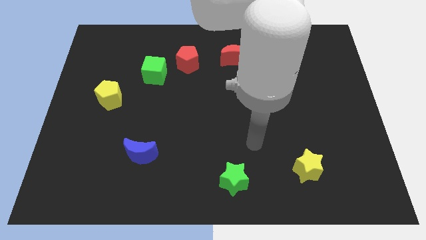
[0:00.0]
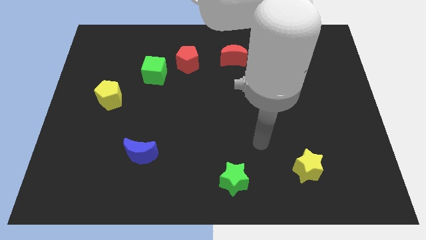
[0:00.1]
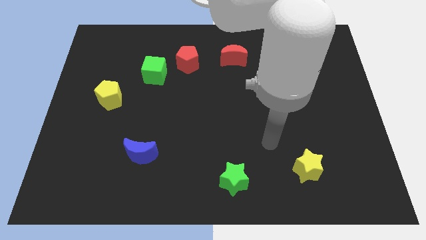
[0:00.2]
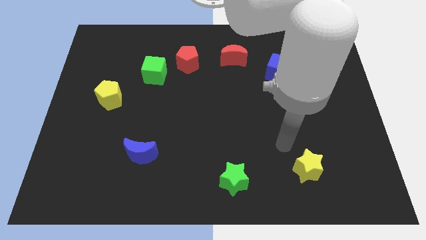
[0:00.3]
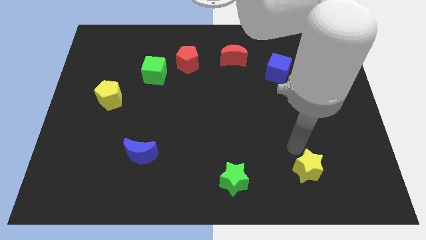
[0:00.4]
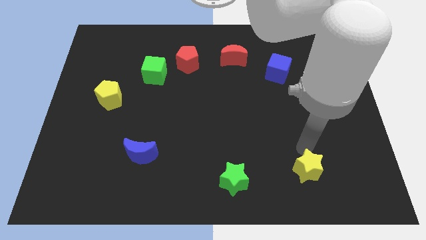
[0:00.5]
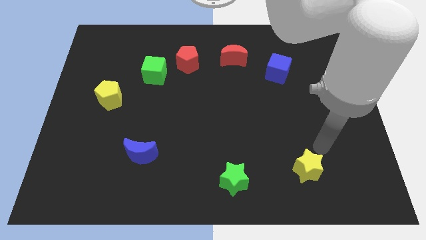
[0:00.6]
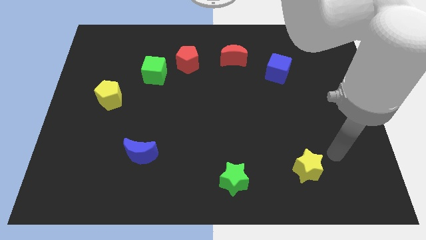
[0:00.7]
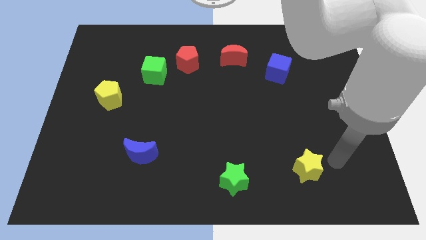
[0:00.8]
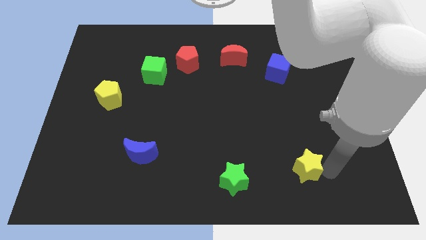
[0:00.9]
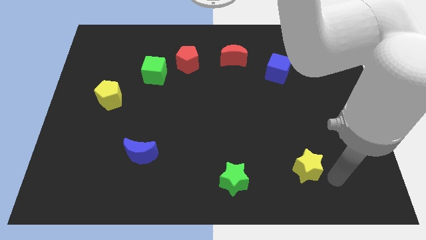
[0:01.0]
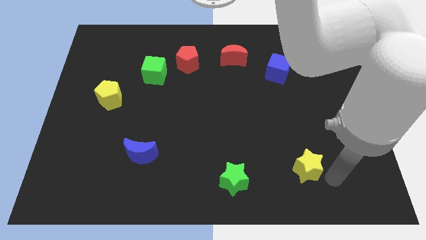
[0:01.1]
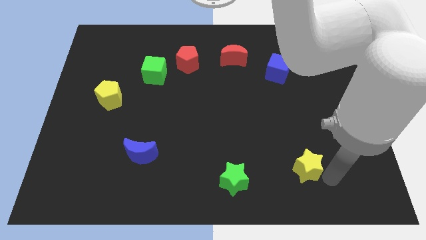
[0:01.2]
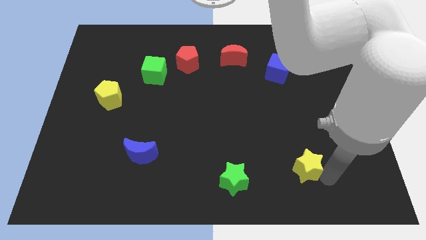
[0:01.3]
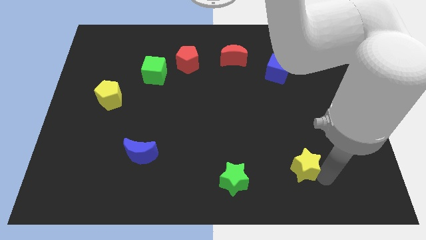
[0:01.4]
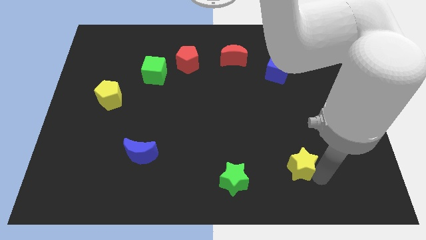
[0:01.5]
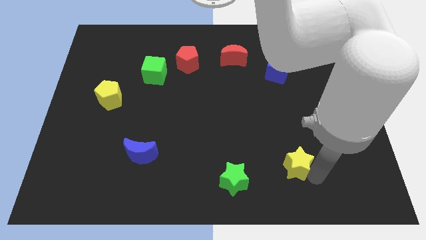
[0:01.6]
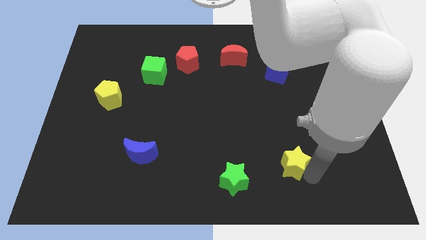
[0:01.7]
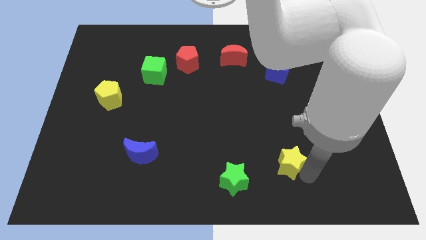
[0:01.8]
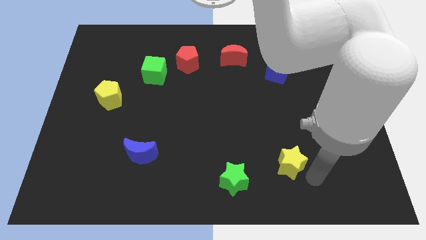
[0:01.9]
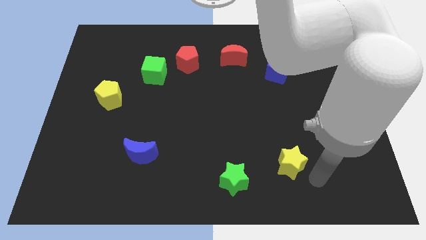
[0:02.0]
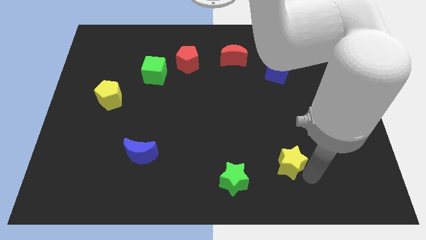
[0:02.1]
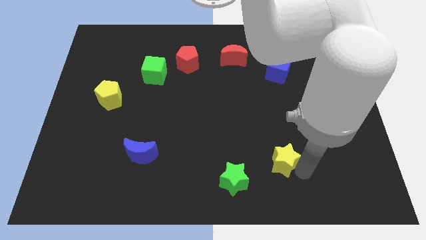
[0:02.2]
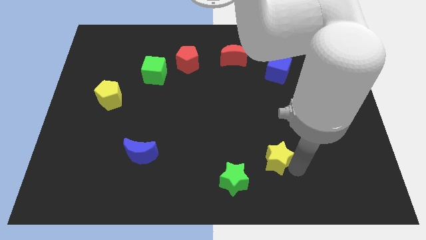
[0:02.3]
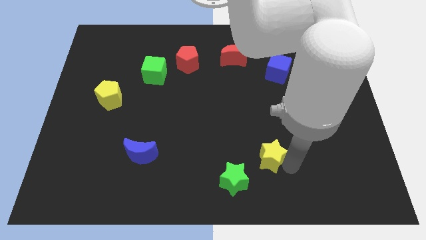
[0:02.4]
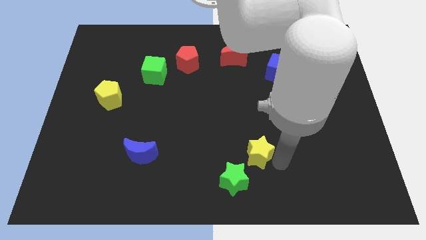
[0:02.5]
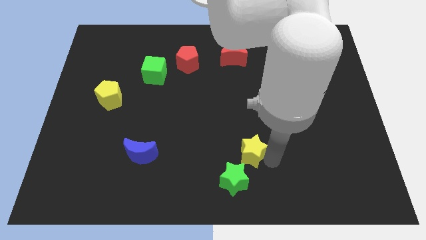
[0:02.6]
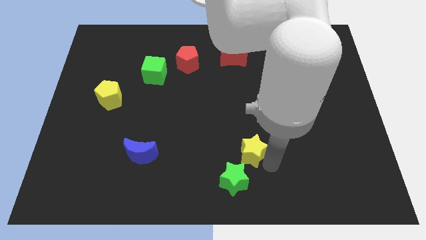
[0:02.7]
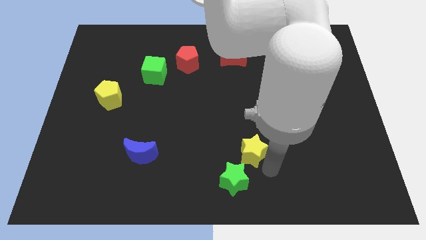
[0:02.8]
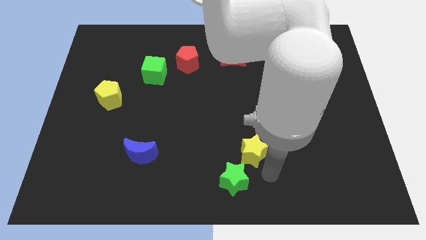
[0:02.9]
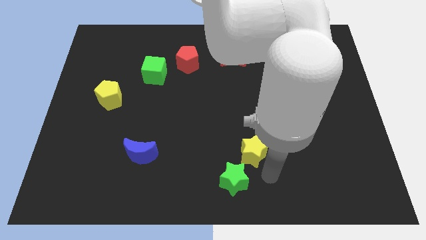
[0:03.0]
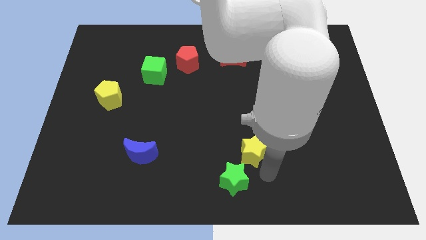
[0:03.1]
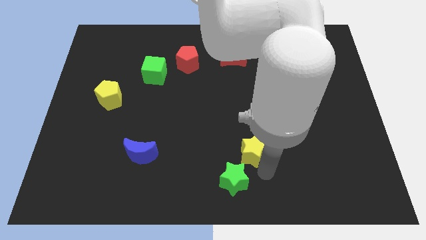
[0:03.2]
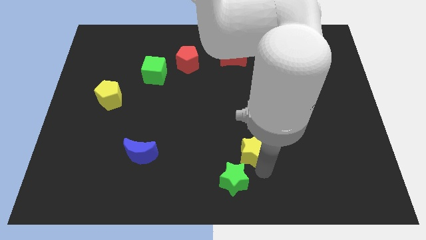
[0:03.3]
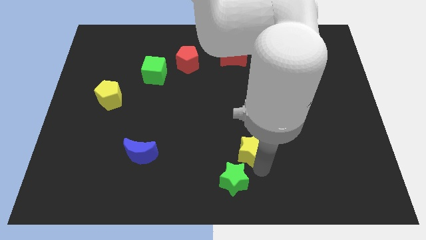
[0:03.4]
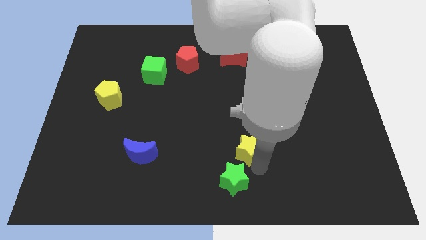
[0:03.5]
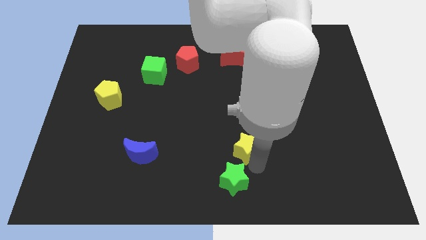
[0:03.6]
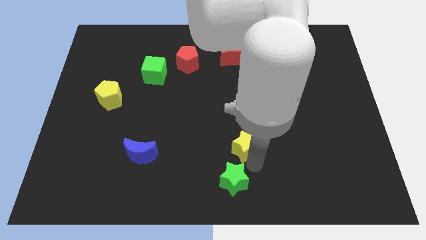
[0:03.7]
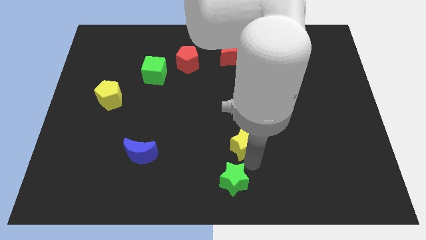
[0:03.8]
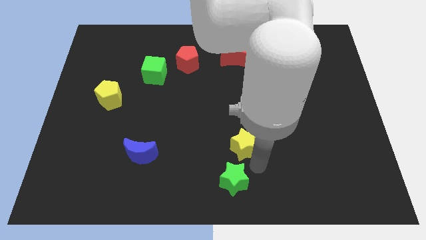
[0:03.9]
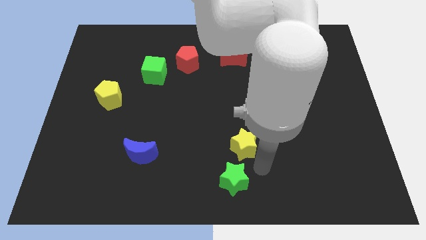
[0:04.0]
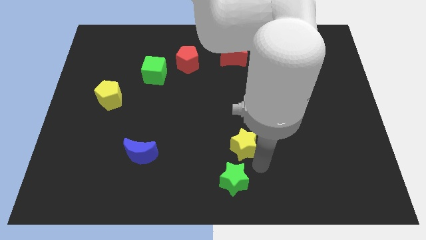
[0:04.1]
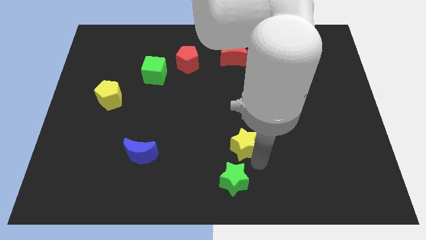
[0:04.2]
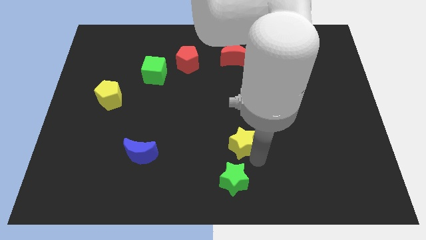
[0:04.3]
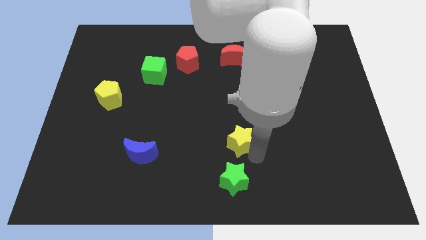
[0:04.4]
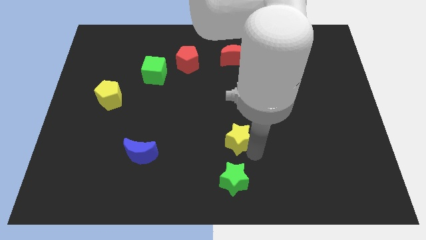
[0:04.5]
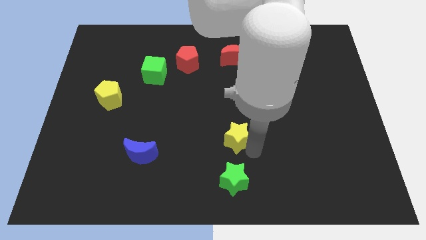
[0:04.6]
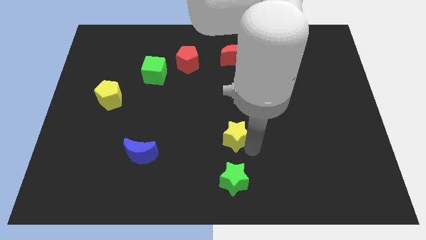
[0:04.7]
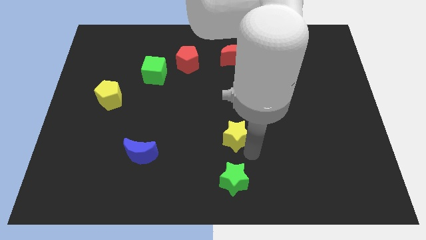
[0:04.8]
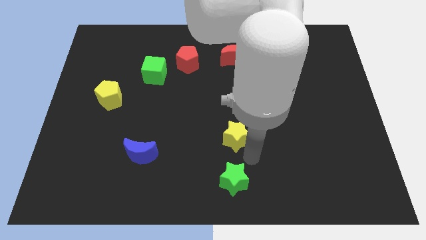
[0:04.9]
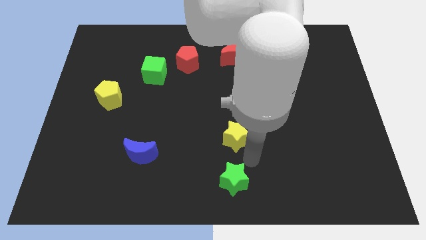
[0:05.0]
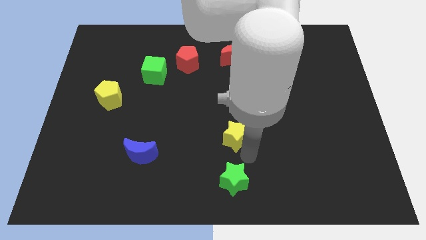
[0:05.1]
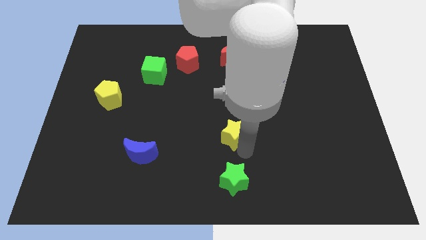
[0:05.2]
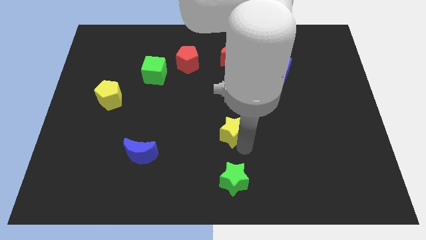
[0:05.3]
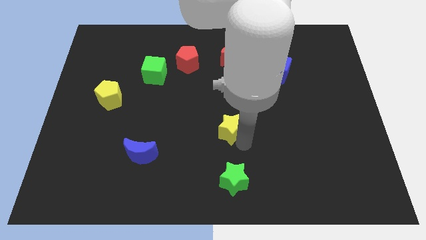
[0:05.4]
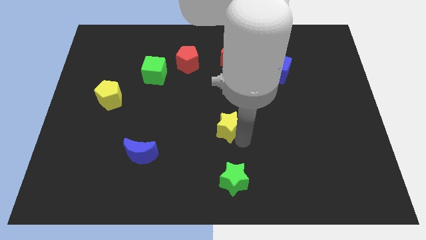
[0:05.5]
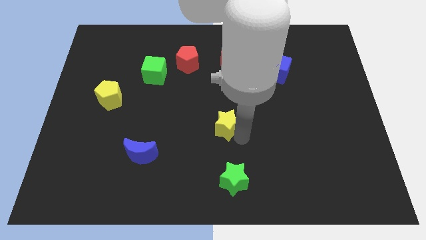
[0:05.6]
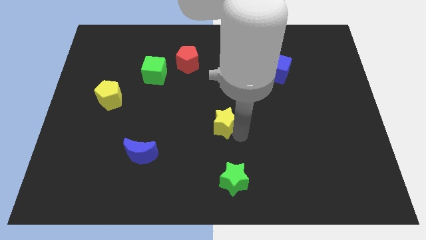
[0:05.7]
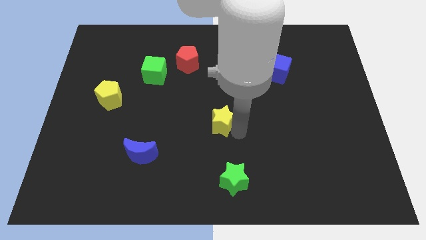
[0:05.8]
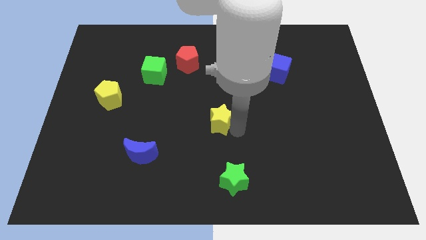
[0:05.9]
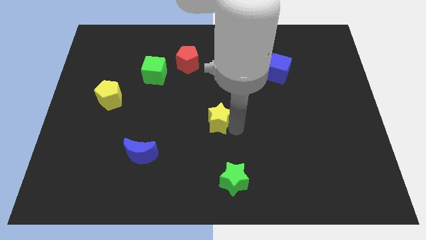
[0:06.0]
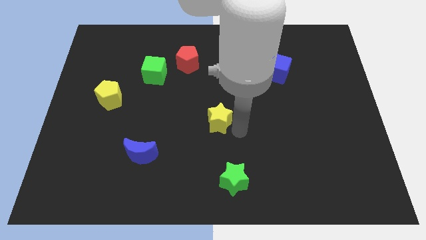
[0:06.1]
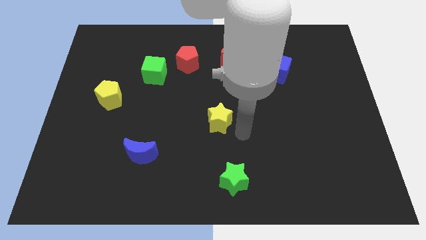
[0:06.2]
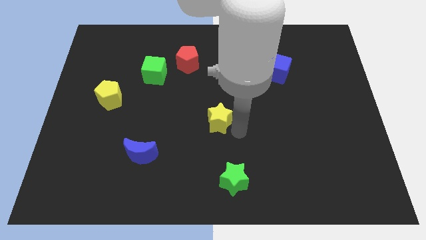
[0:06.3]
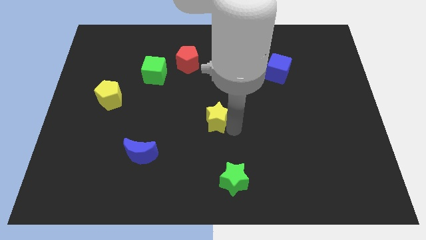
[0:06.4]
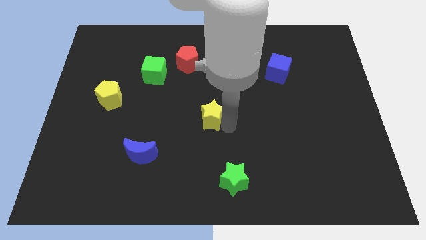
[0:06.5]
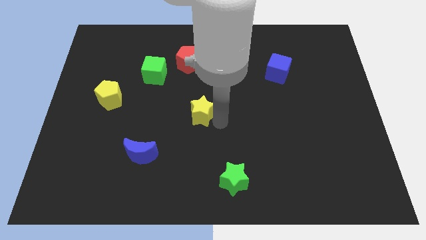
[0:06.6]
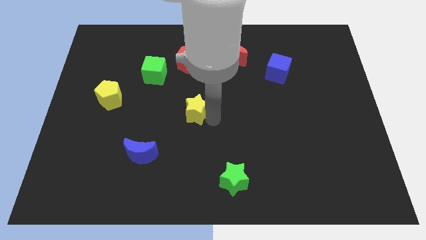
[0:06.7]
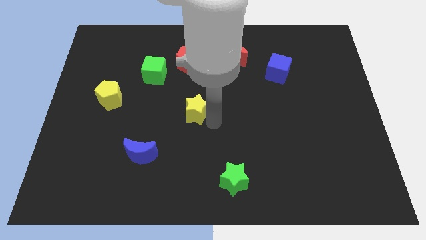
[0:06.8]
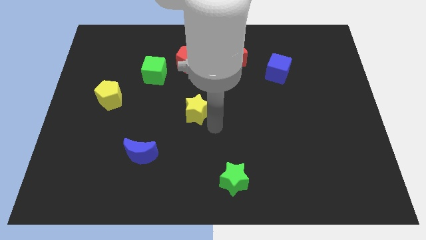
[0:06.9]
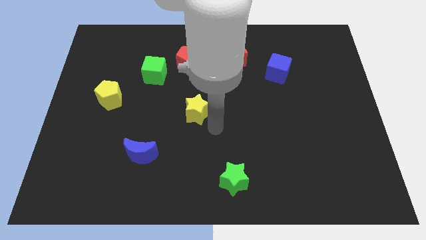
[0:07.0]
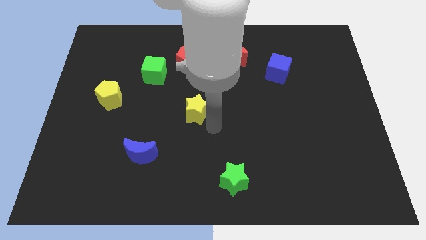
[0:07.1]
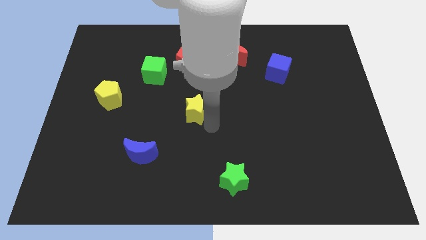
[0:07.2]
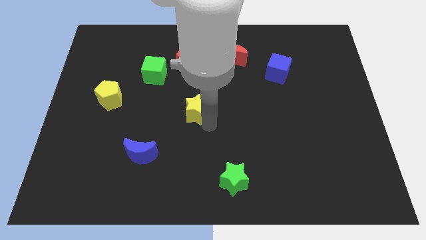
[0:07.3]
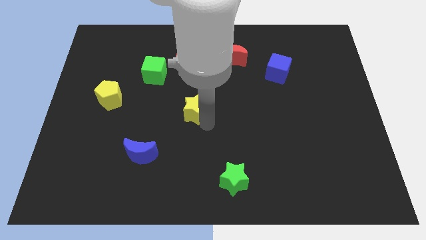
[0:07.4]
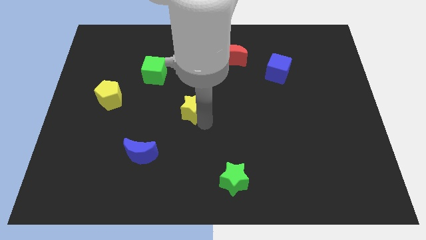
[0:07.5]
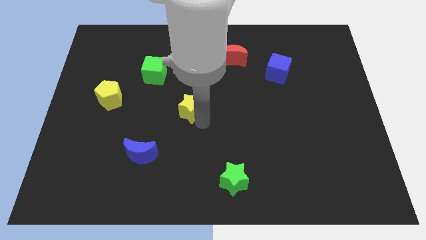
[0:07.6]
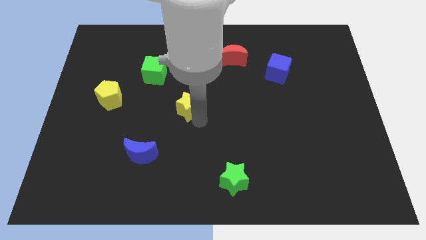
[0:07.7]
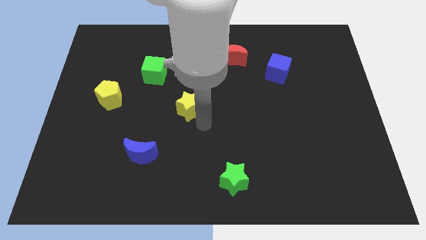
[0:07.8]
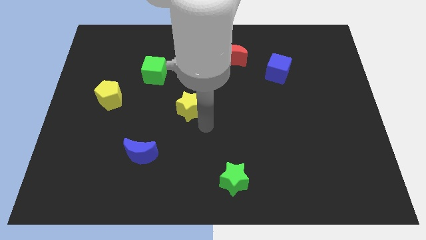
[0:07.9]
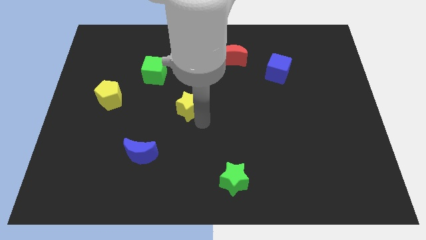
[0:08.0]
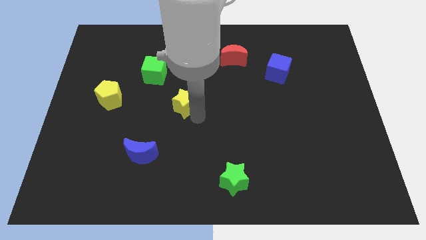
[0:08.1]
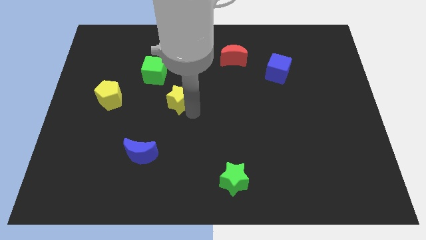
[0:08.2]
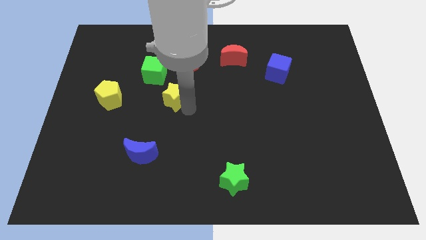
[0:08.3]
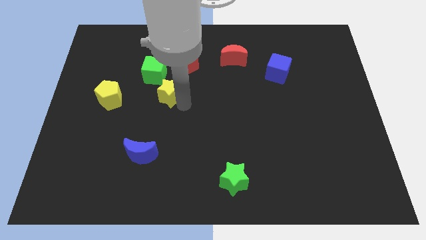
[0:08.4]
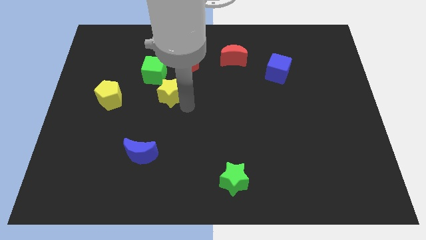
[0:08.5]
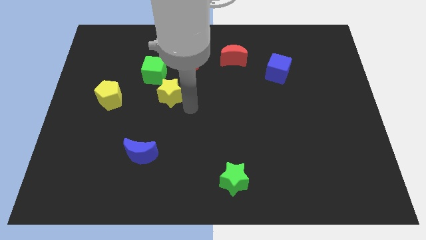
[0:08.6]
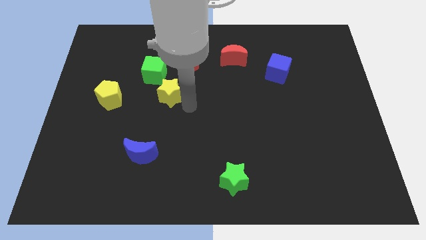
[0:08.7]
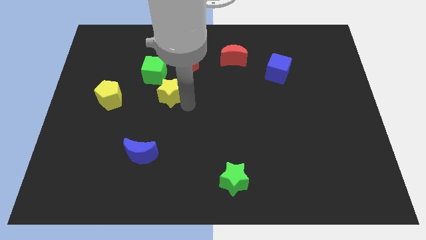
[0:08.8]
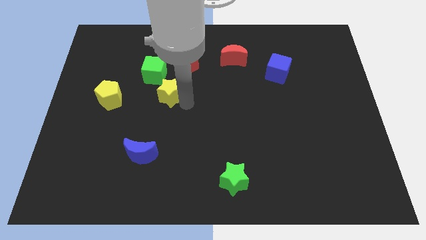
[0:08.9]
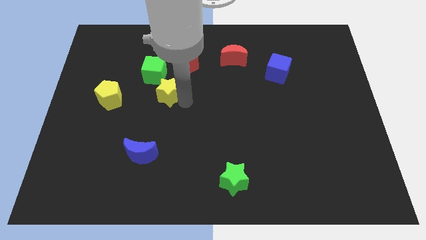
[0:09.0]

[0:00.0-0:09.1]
move the yellow star to the bottom left side of the red pentagon
